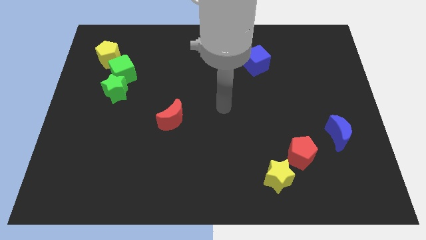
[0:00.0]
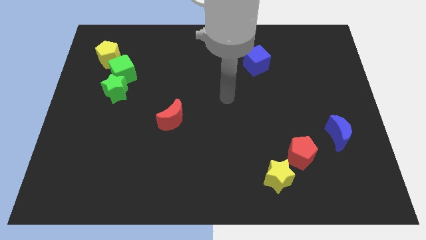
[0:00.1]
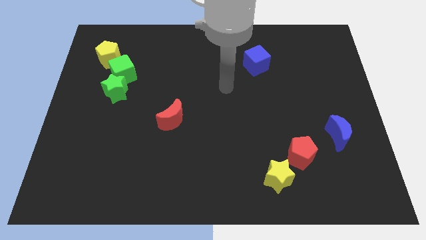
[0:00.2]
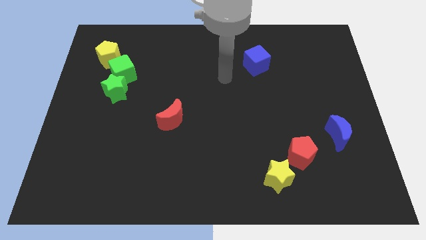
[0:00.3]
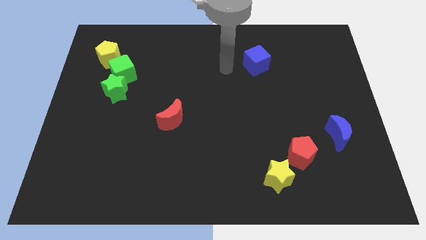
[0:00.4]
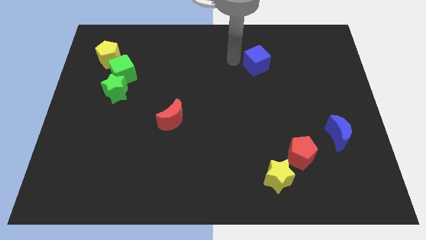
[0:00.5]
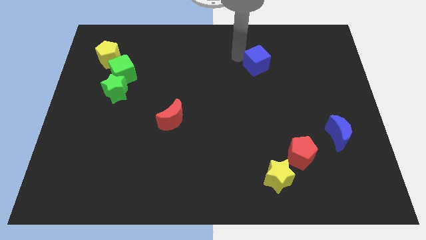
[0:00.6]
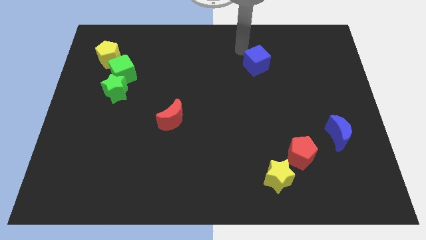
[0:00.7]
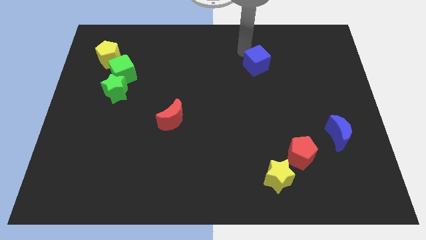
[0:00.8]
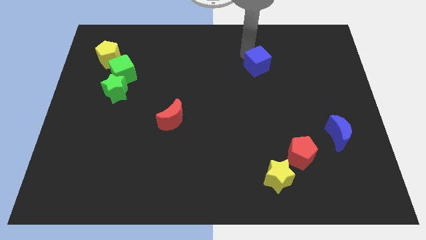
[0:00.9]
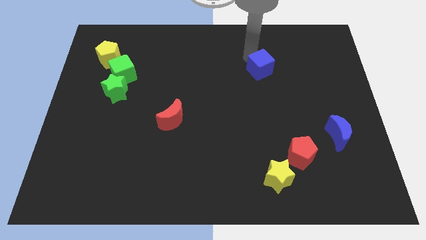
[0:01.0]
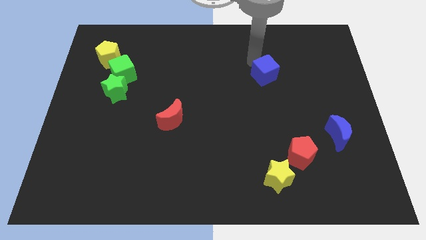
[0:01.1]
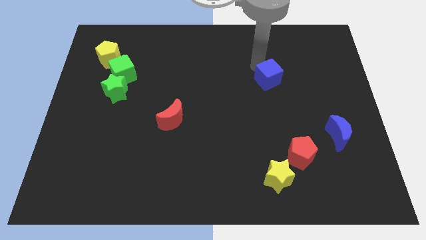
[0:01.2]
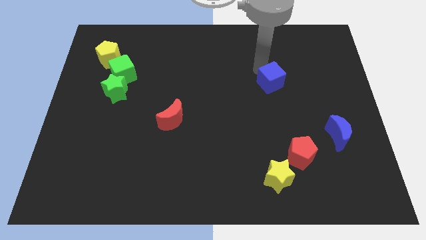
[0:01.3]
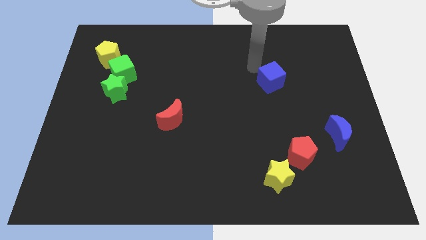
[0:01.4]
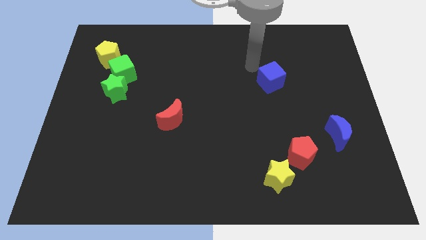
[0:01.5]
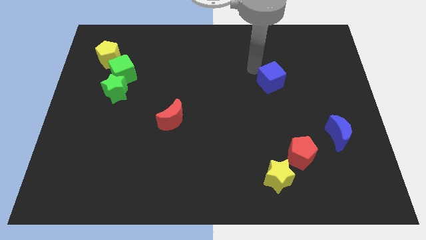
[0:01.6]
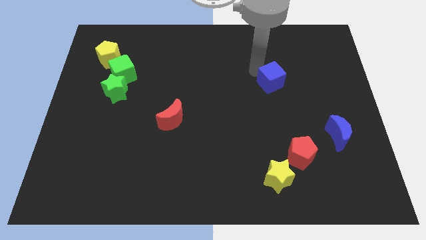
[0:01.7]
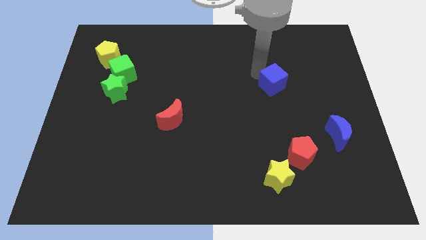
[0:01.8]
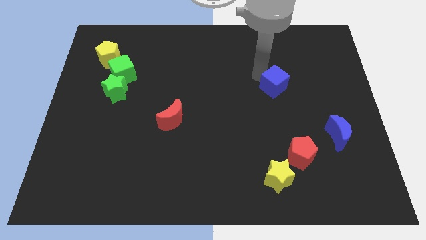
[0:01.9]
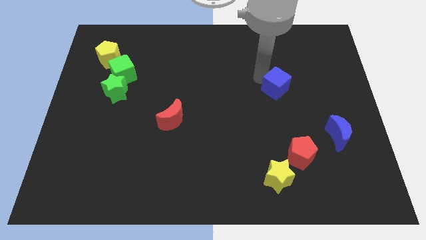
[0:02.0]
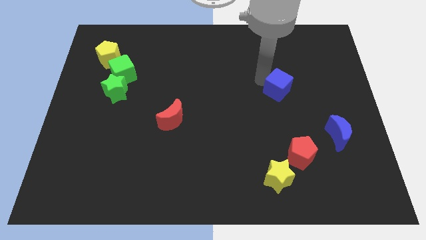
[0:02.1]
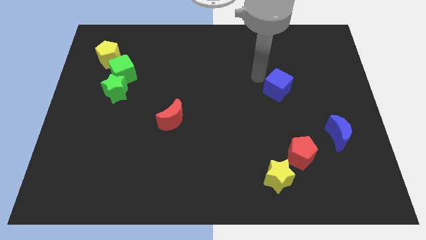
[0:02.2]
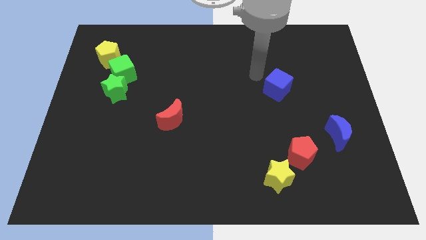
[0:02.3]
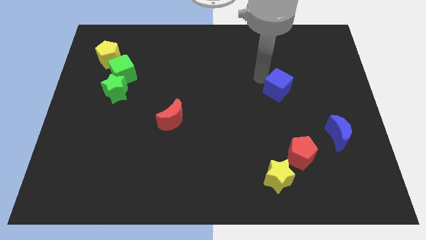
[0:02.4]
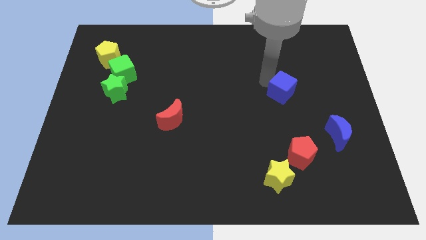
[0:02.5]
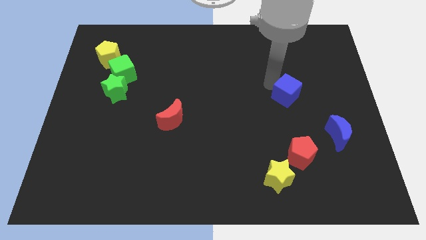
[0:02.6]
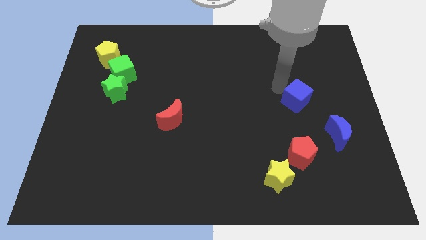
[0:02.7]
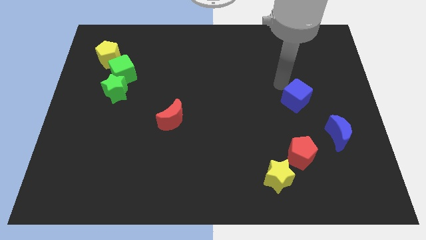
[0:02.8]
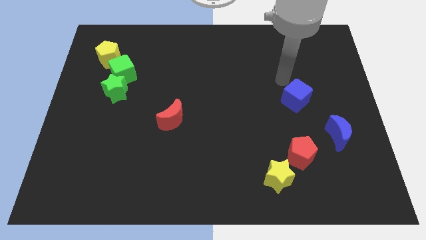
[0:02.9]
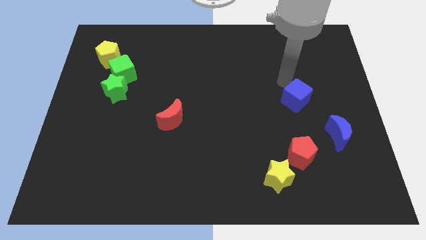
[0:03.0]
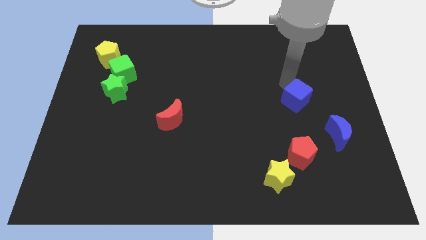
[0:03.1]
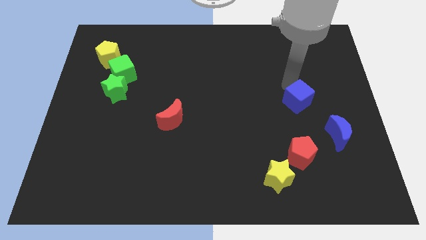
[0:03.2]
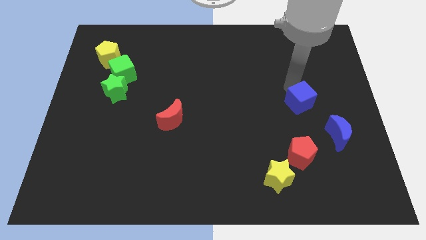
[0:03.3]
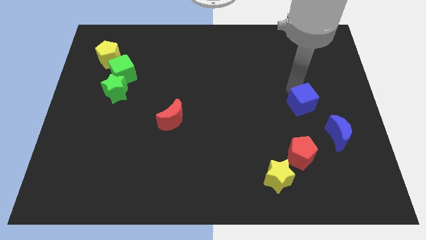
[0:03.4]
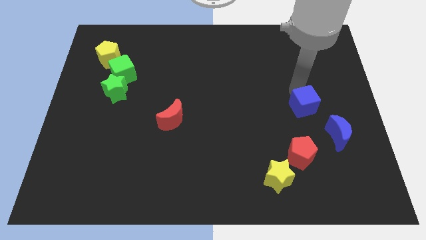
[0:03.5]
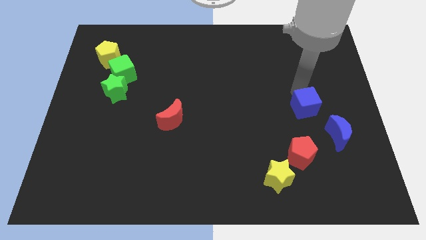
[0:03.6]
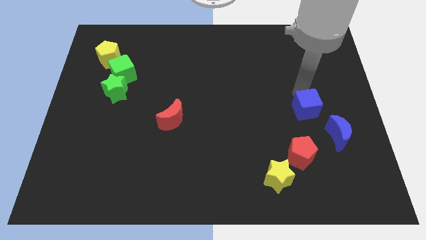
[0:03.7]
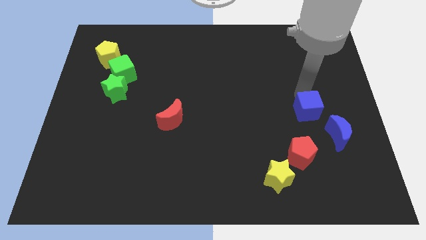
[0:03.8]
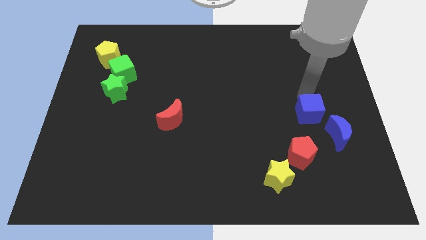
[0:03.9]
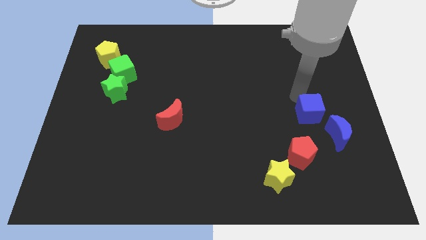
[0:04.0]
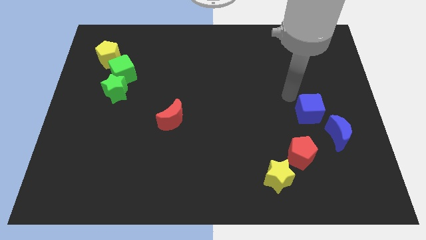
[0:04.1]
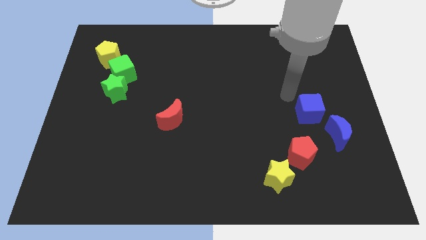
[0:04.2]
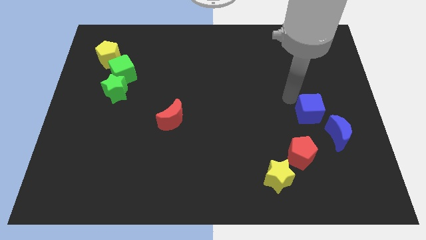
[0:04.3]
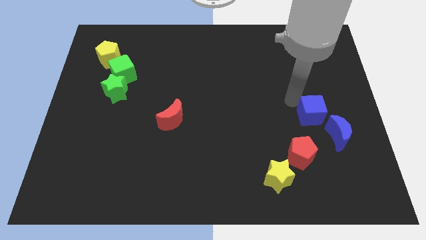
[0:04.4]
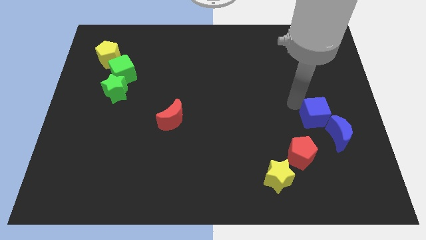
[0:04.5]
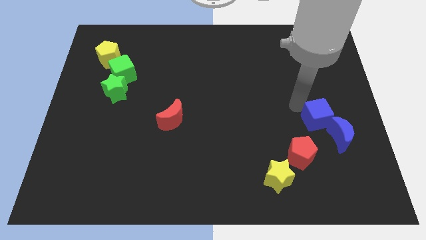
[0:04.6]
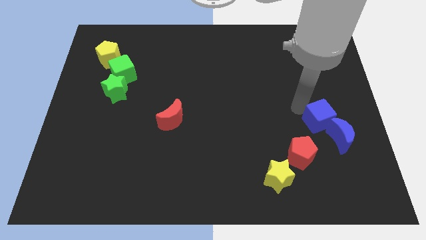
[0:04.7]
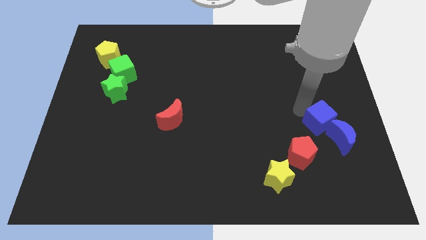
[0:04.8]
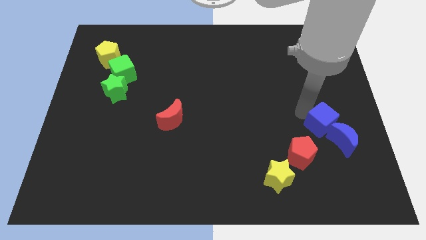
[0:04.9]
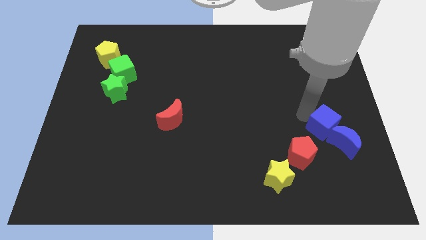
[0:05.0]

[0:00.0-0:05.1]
put the blue cube to the blue moon

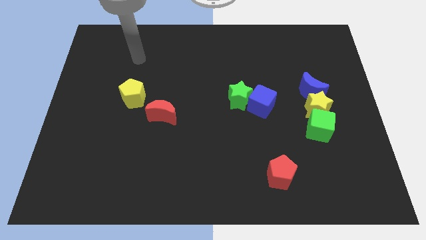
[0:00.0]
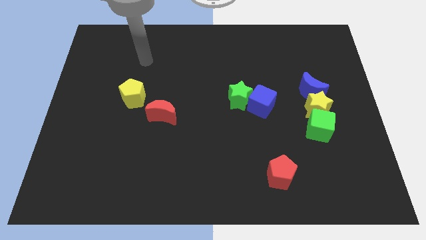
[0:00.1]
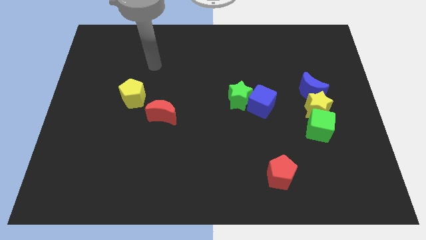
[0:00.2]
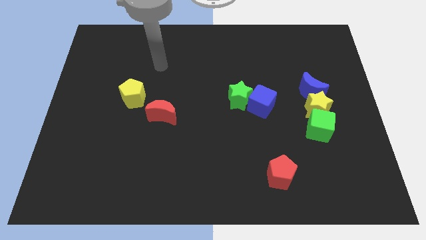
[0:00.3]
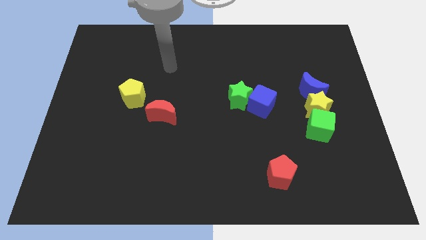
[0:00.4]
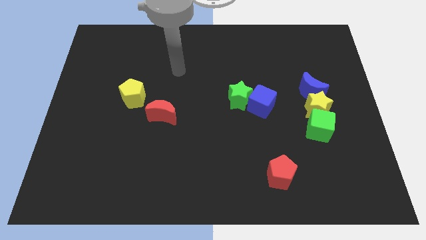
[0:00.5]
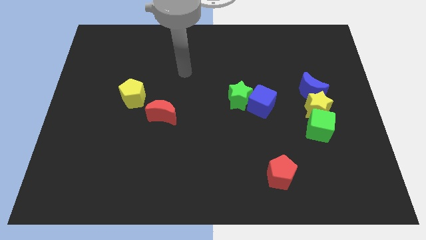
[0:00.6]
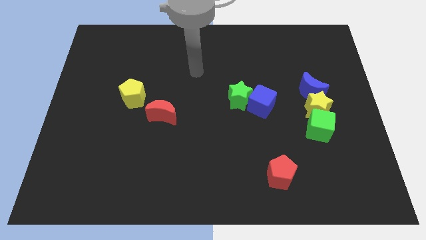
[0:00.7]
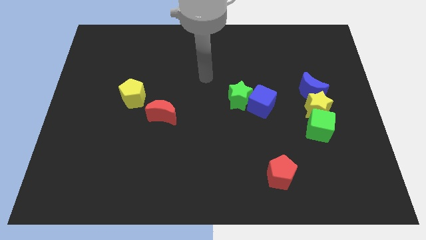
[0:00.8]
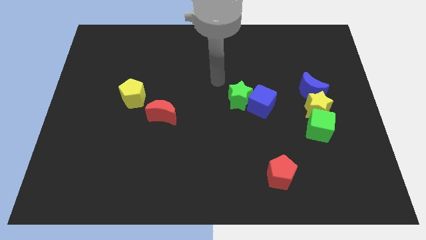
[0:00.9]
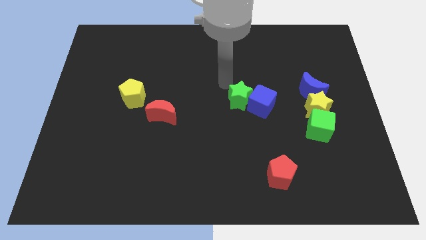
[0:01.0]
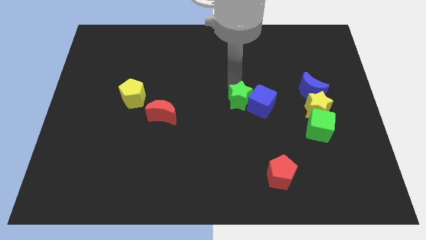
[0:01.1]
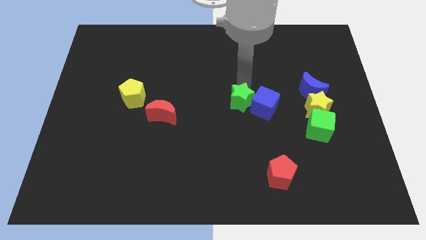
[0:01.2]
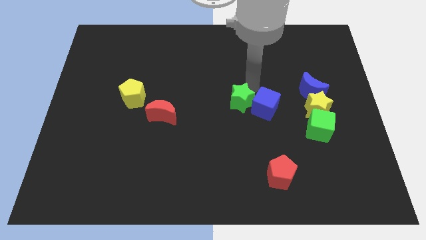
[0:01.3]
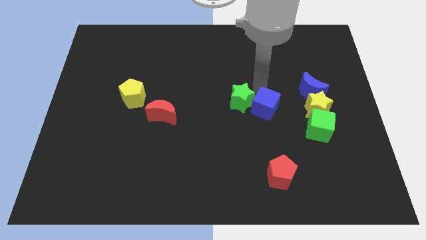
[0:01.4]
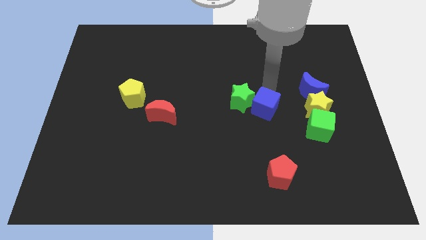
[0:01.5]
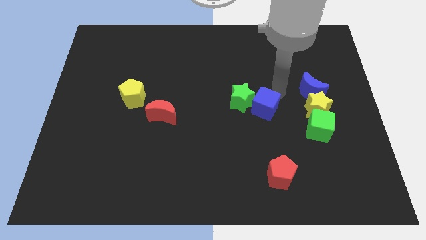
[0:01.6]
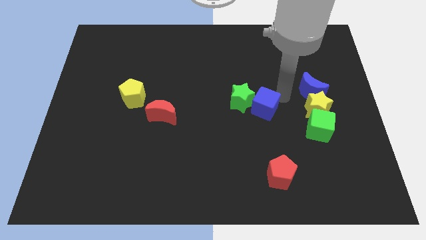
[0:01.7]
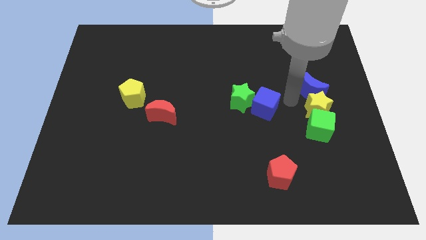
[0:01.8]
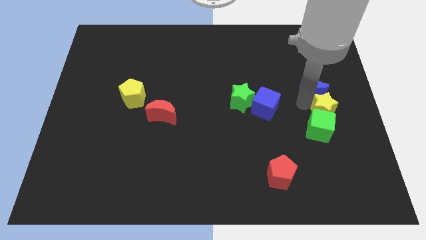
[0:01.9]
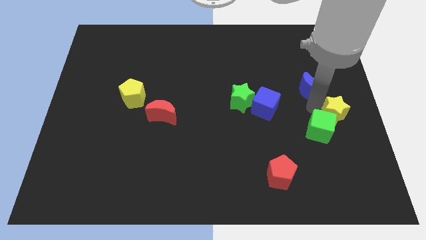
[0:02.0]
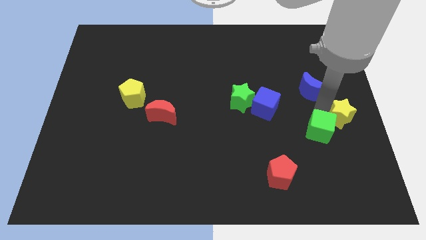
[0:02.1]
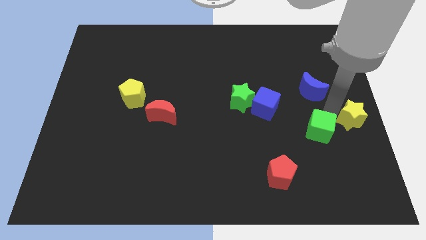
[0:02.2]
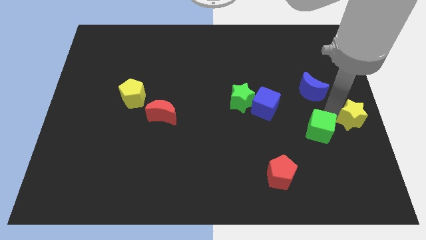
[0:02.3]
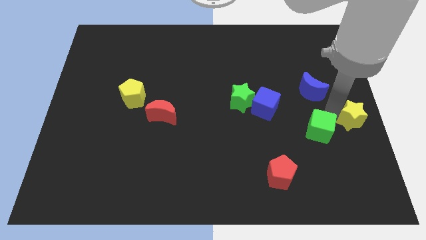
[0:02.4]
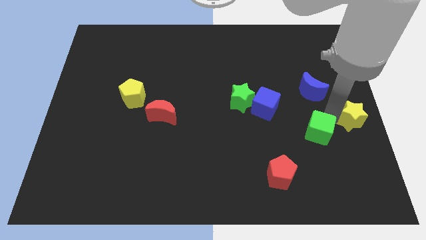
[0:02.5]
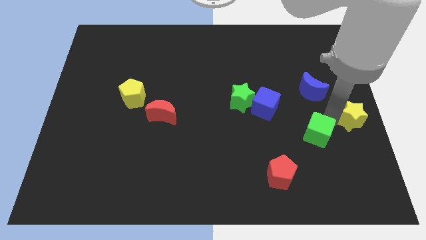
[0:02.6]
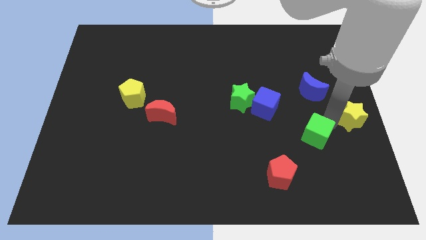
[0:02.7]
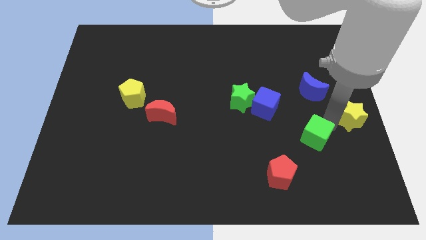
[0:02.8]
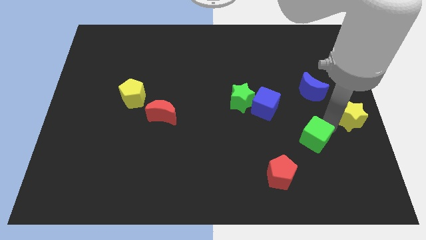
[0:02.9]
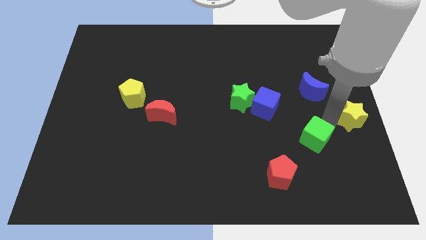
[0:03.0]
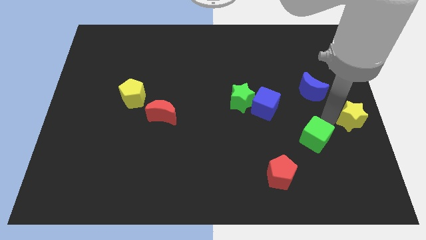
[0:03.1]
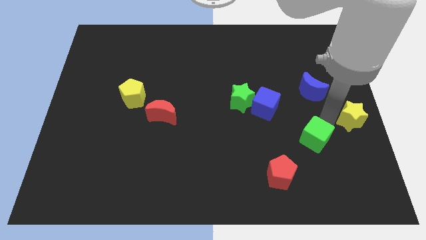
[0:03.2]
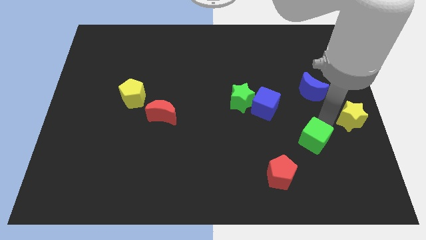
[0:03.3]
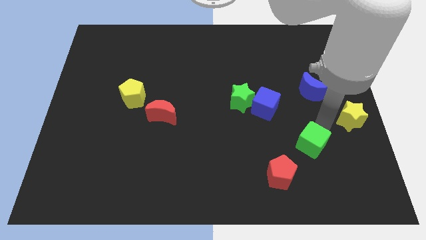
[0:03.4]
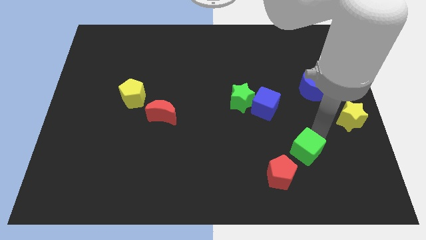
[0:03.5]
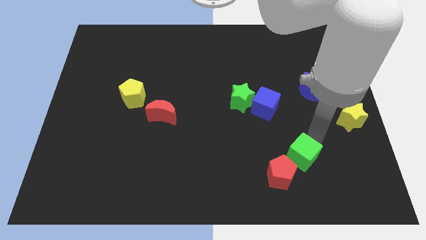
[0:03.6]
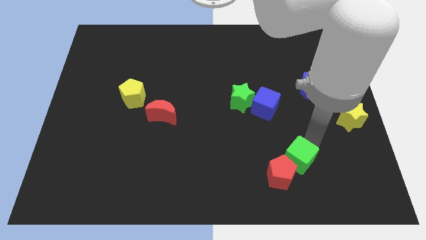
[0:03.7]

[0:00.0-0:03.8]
push the green cube towards the red pentagon
